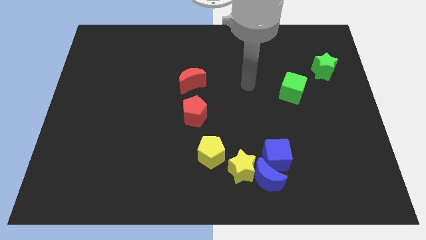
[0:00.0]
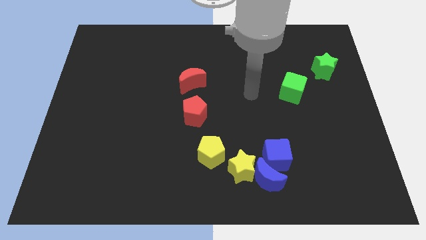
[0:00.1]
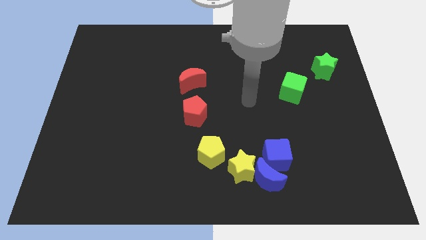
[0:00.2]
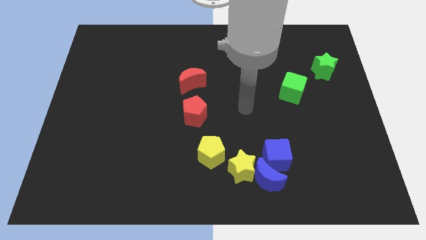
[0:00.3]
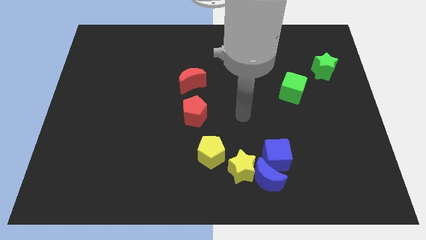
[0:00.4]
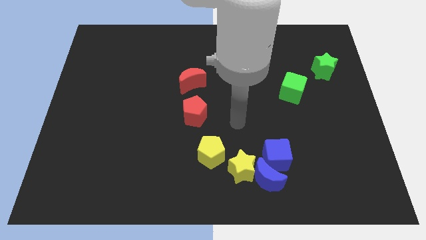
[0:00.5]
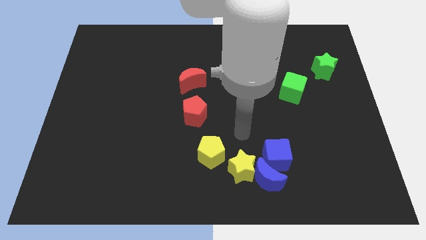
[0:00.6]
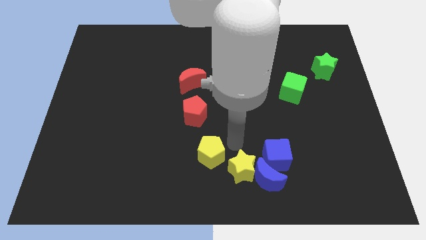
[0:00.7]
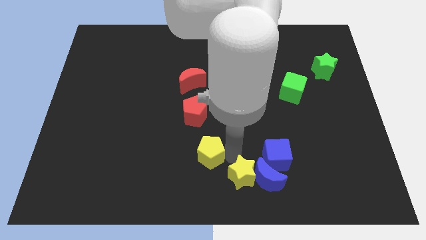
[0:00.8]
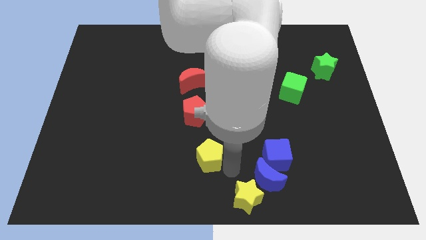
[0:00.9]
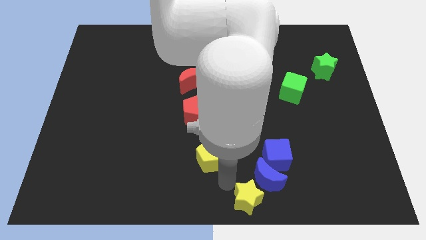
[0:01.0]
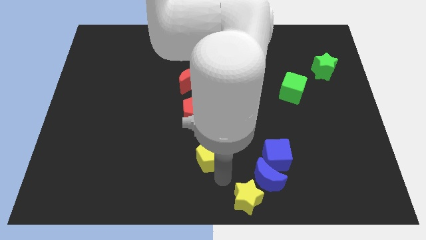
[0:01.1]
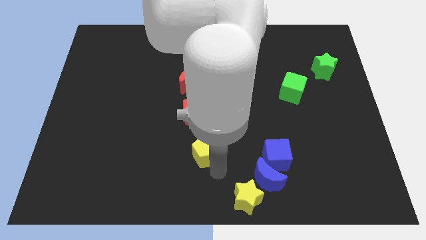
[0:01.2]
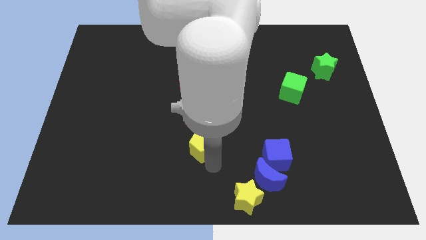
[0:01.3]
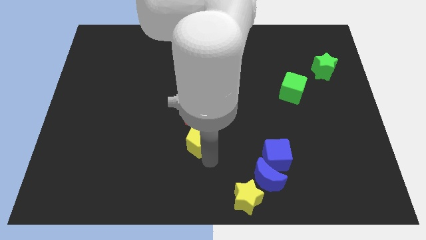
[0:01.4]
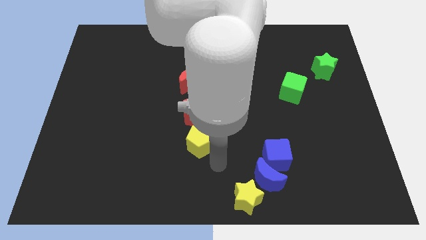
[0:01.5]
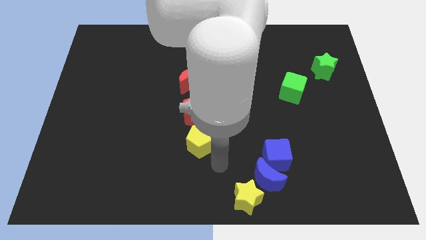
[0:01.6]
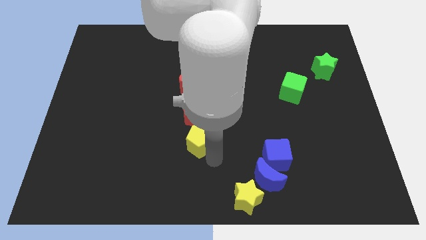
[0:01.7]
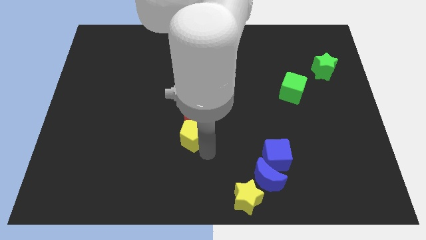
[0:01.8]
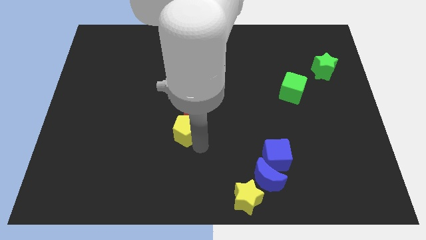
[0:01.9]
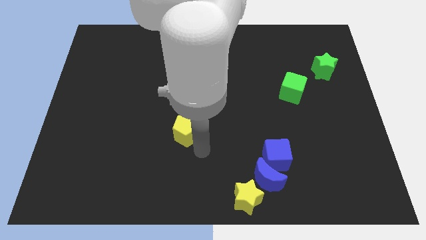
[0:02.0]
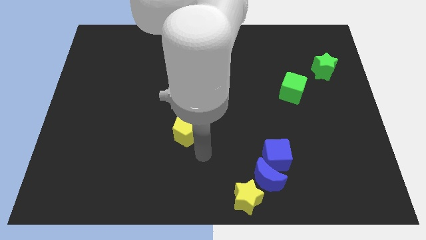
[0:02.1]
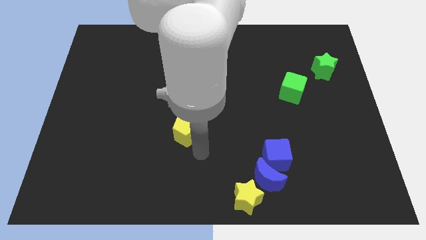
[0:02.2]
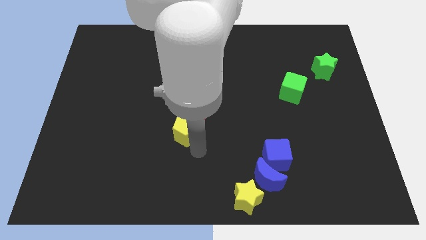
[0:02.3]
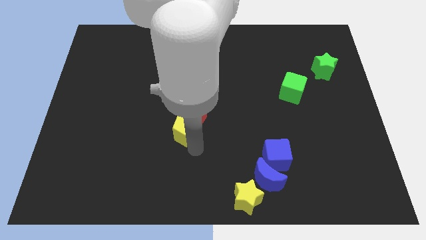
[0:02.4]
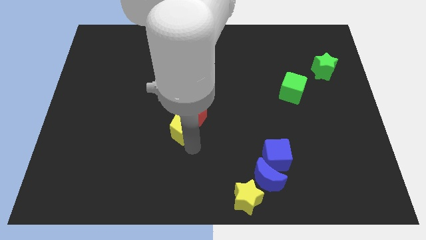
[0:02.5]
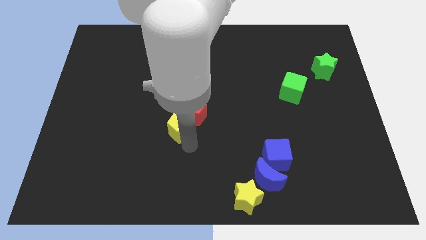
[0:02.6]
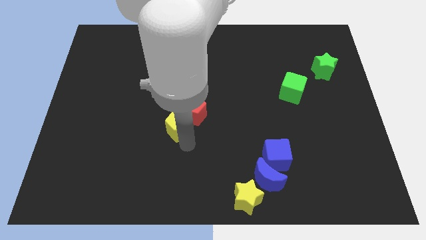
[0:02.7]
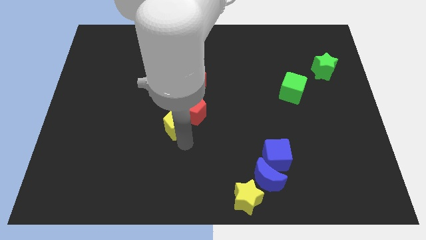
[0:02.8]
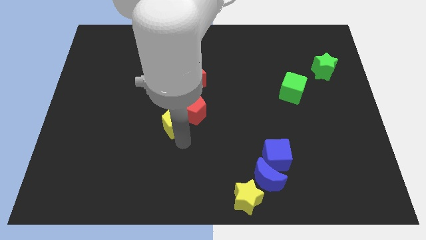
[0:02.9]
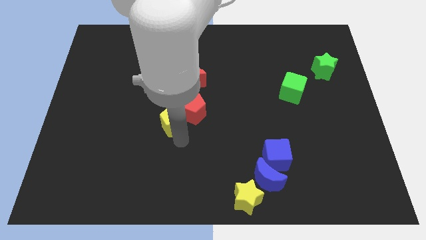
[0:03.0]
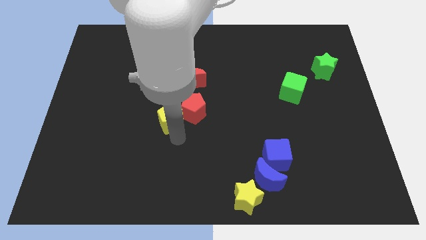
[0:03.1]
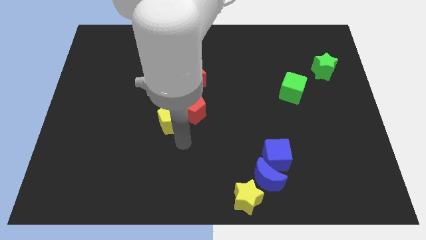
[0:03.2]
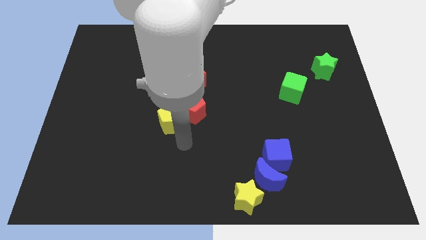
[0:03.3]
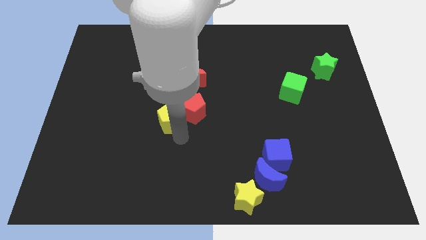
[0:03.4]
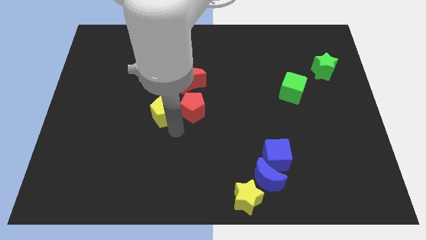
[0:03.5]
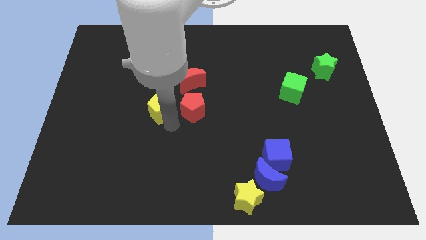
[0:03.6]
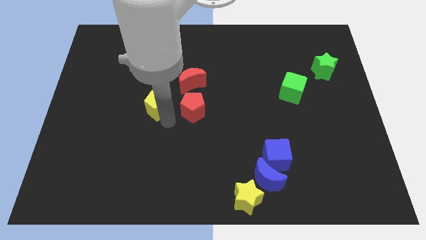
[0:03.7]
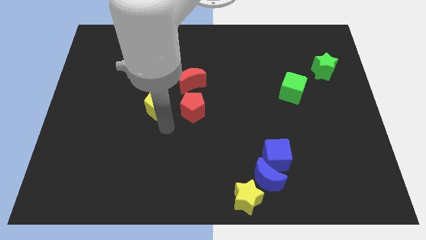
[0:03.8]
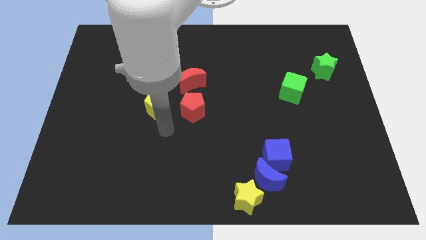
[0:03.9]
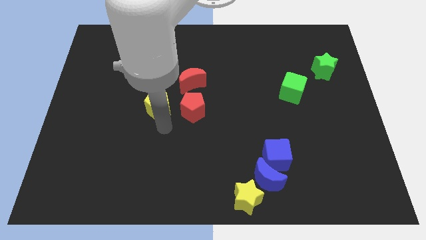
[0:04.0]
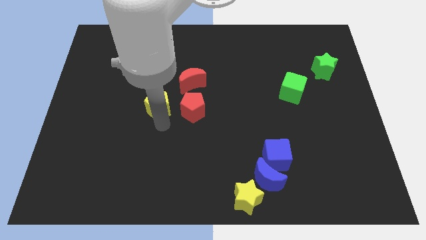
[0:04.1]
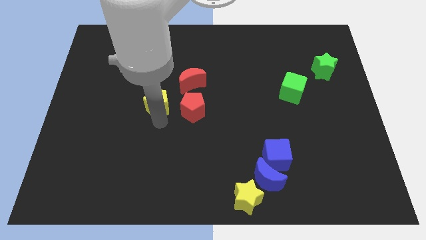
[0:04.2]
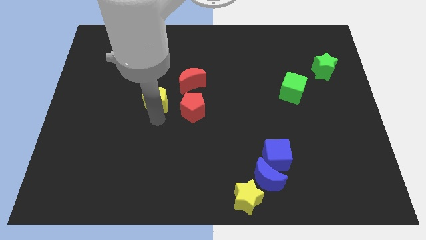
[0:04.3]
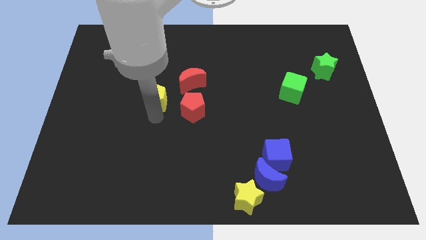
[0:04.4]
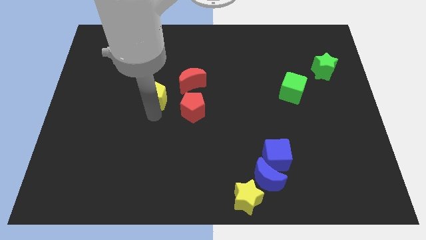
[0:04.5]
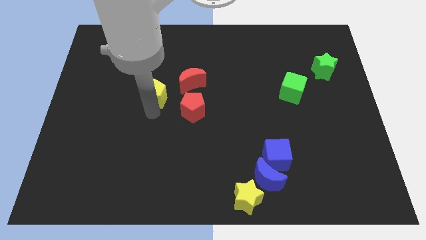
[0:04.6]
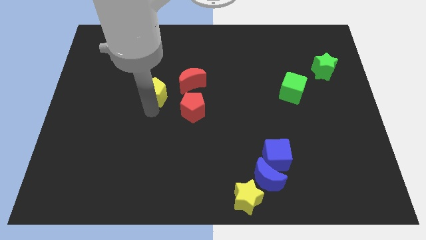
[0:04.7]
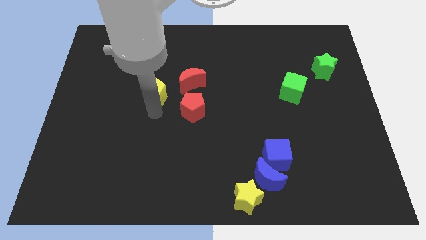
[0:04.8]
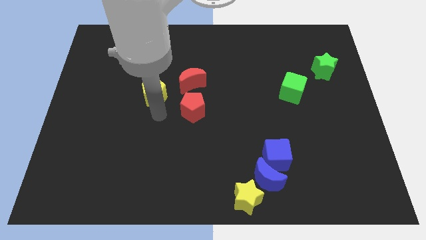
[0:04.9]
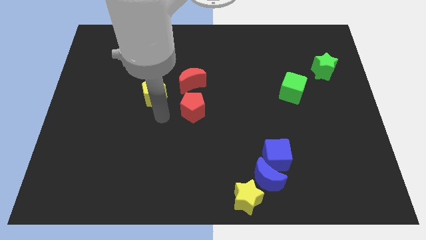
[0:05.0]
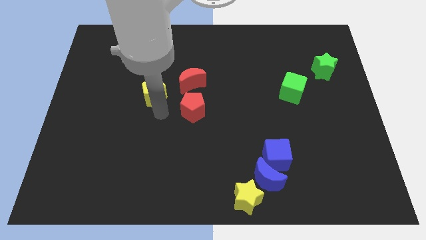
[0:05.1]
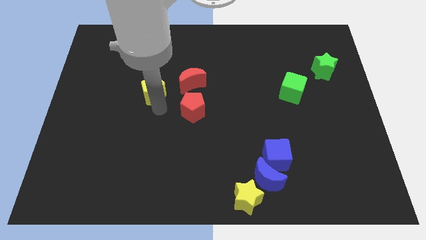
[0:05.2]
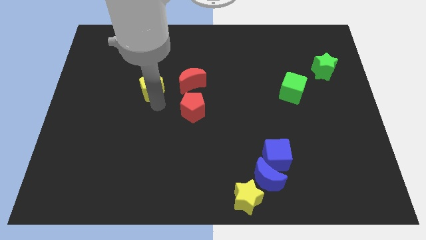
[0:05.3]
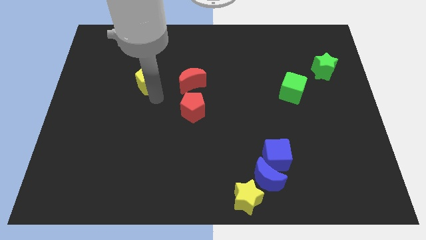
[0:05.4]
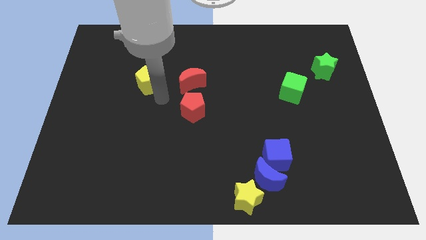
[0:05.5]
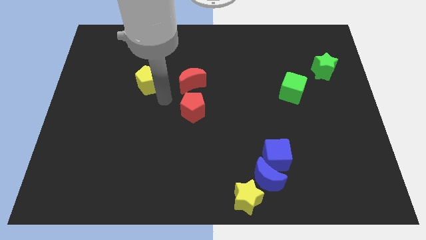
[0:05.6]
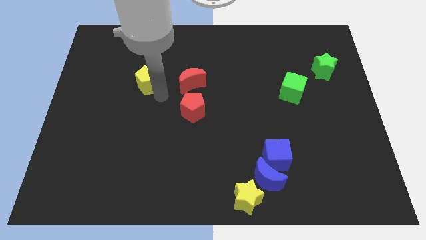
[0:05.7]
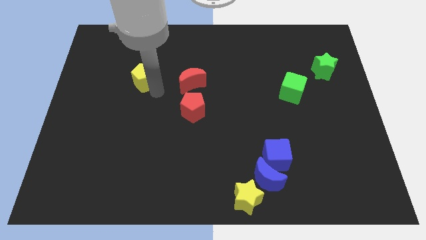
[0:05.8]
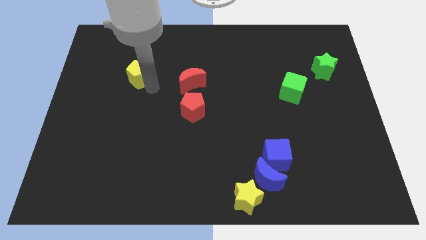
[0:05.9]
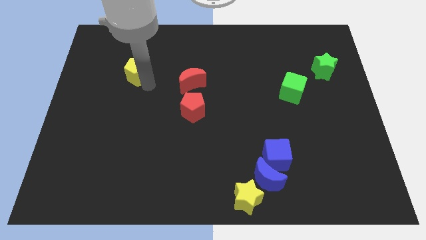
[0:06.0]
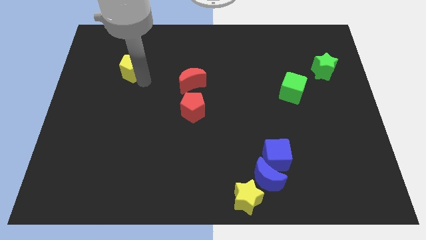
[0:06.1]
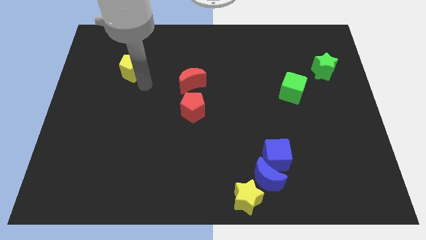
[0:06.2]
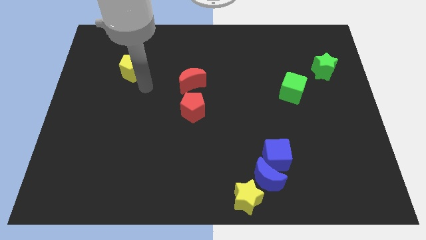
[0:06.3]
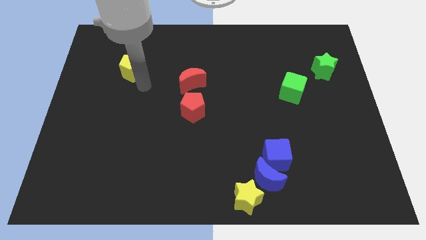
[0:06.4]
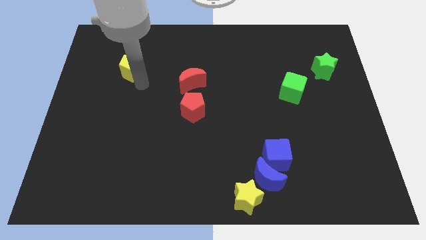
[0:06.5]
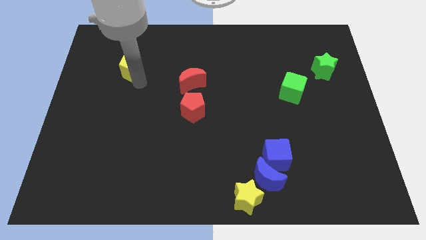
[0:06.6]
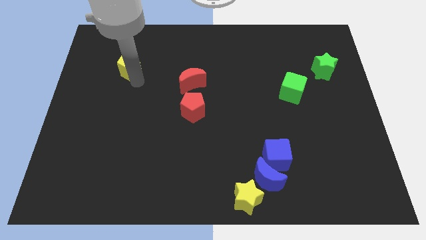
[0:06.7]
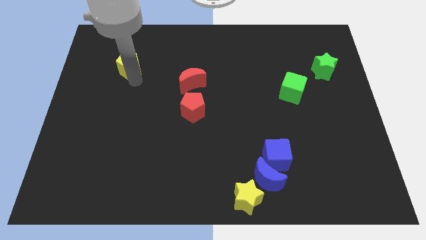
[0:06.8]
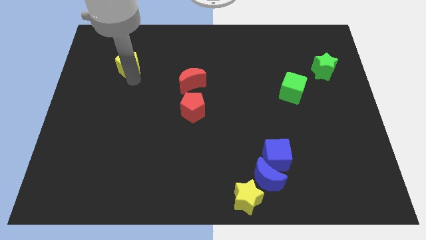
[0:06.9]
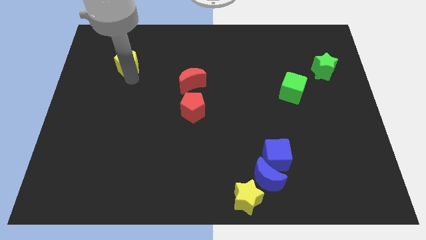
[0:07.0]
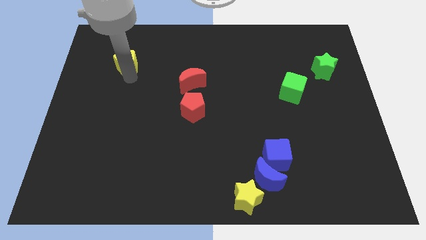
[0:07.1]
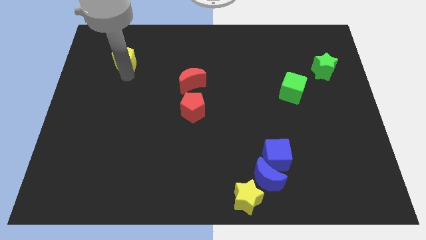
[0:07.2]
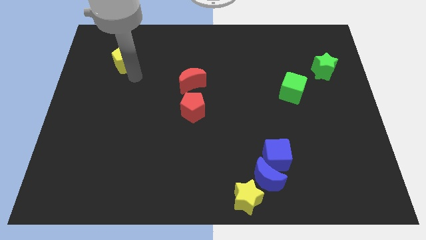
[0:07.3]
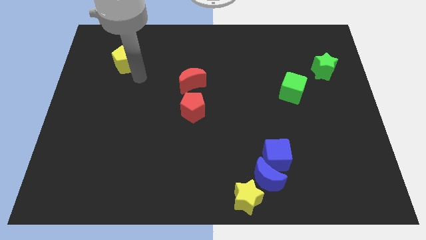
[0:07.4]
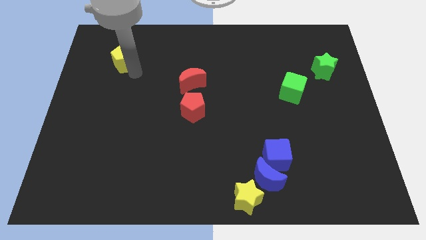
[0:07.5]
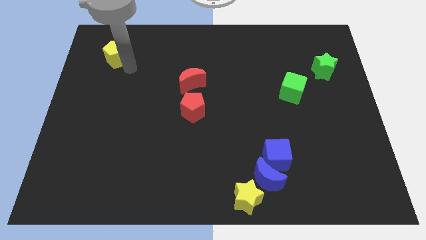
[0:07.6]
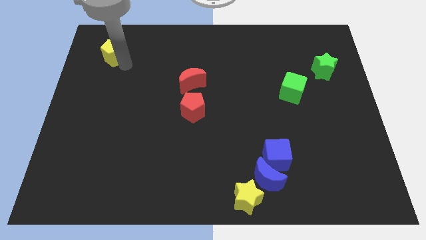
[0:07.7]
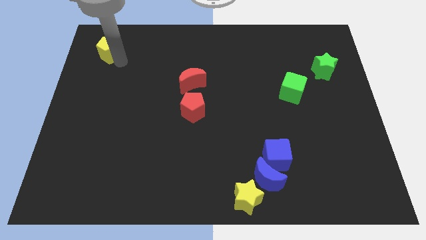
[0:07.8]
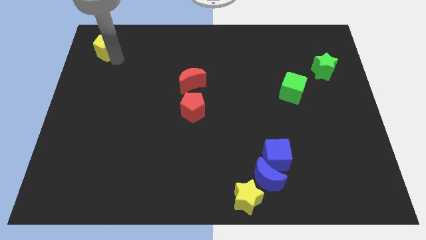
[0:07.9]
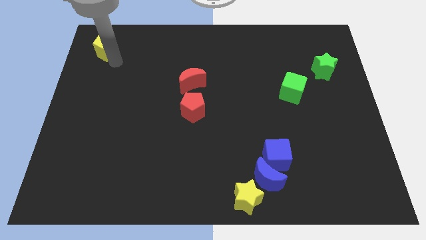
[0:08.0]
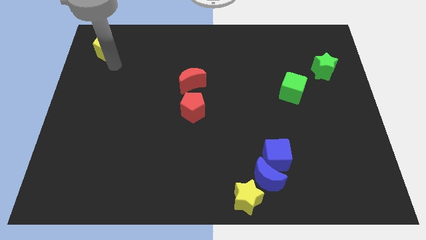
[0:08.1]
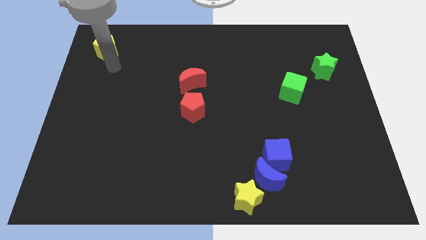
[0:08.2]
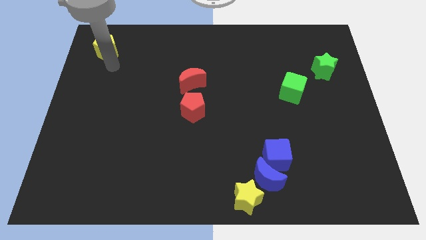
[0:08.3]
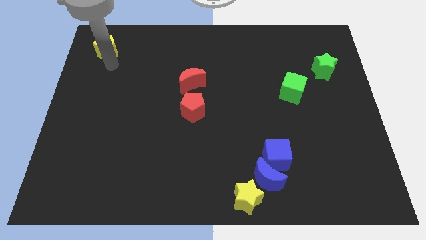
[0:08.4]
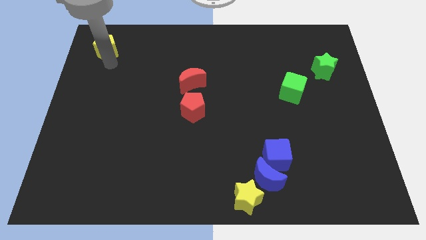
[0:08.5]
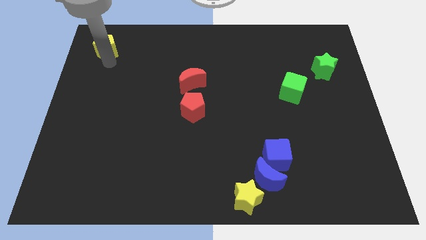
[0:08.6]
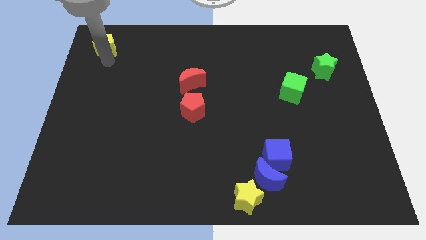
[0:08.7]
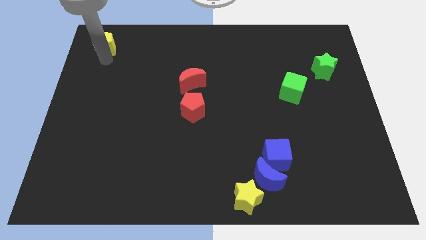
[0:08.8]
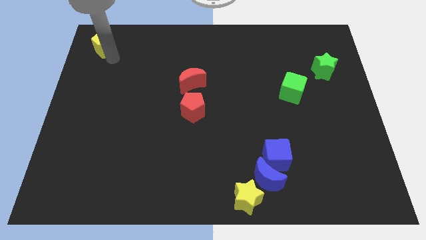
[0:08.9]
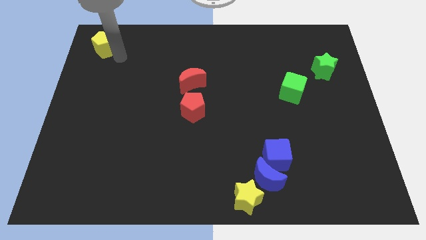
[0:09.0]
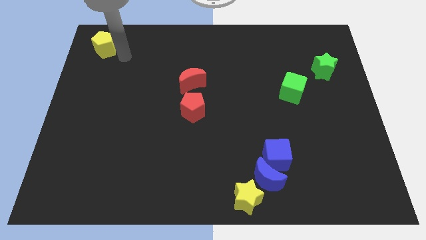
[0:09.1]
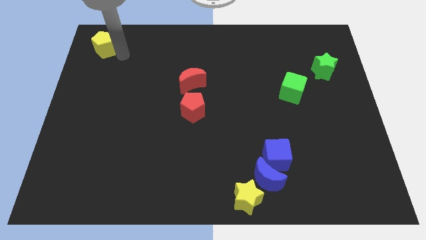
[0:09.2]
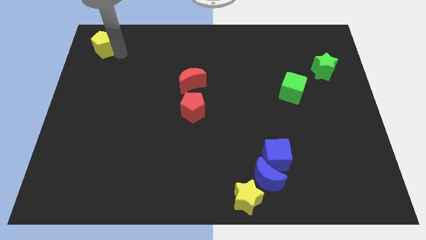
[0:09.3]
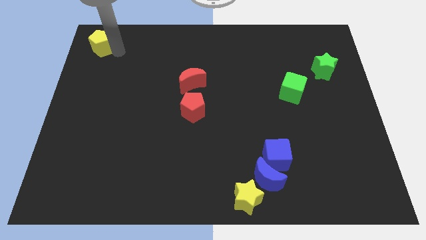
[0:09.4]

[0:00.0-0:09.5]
move the yellow pentagon to the top left
